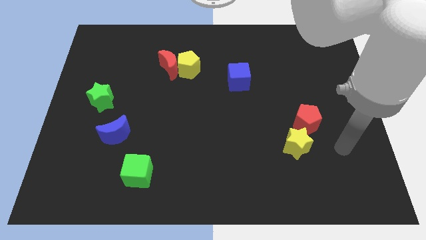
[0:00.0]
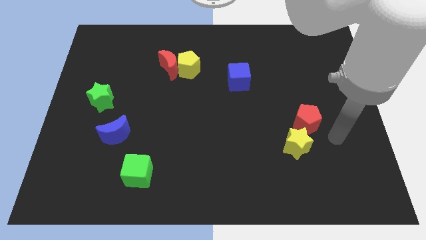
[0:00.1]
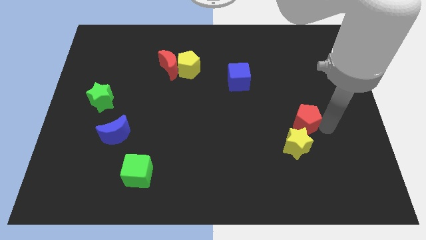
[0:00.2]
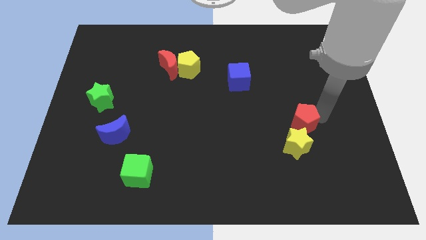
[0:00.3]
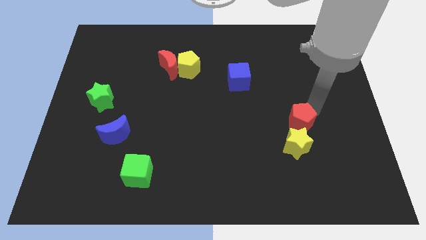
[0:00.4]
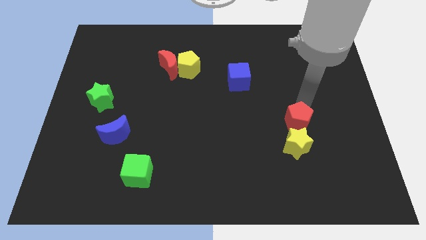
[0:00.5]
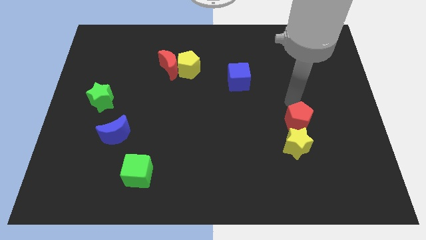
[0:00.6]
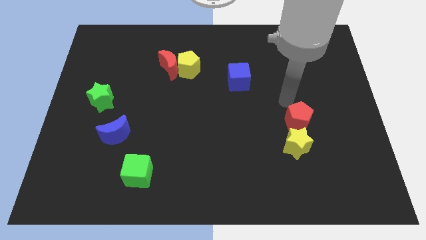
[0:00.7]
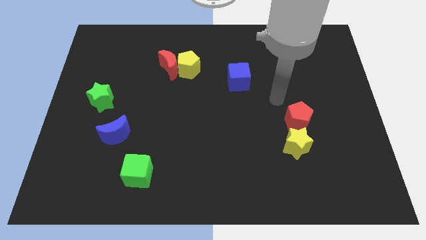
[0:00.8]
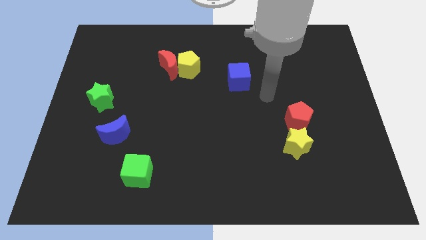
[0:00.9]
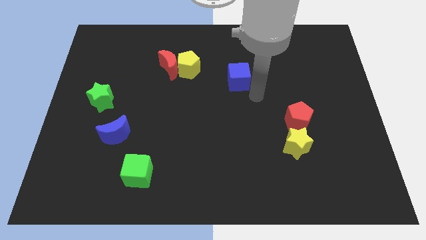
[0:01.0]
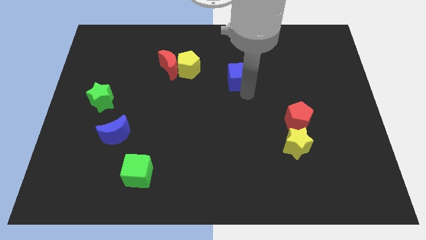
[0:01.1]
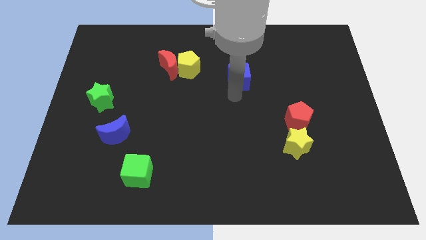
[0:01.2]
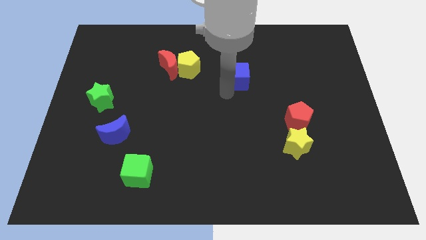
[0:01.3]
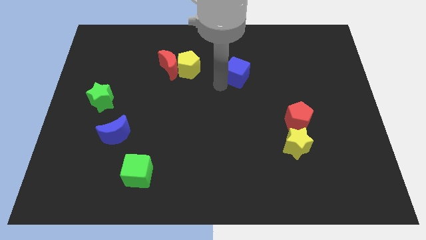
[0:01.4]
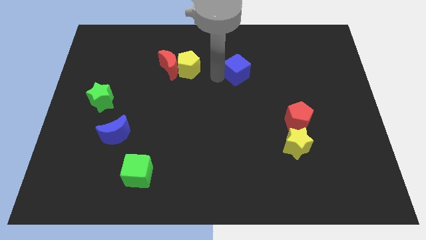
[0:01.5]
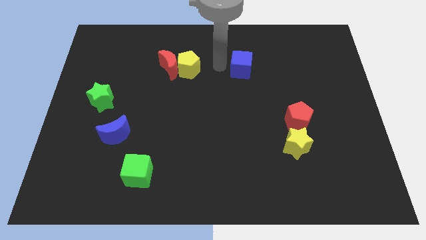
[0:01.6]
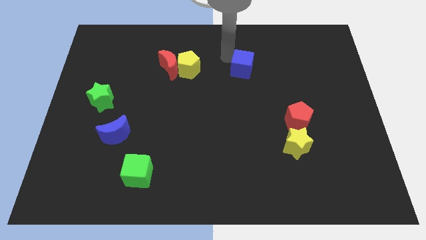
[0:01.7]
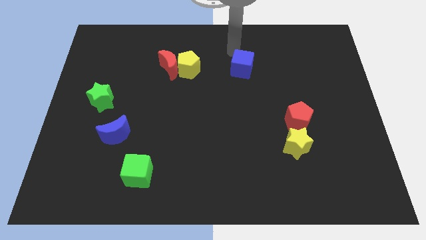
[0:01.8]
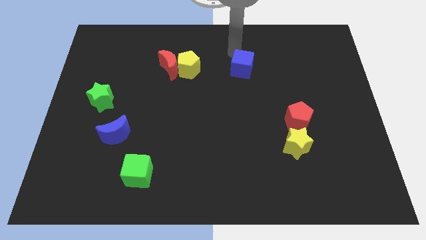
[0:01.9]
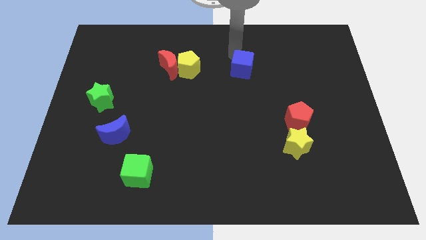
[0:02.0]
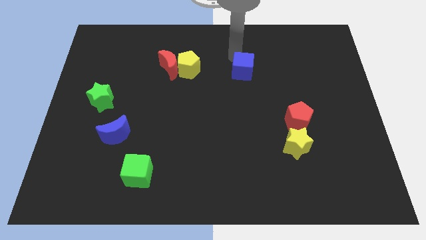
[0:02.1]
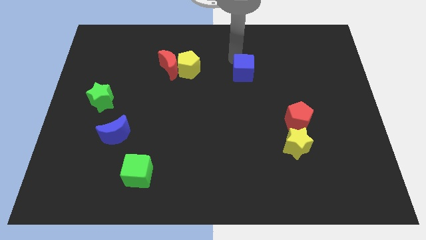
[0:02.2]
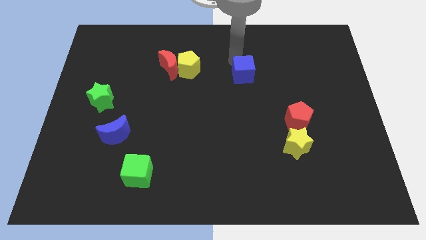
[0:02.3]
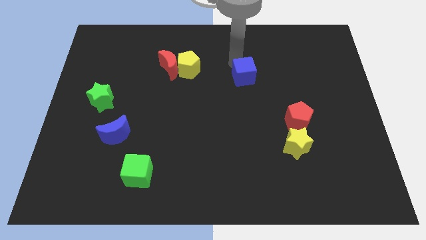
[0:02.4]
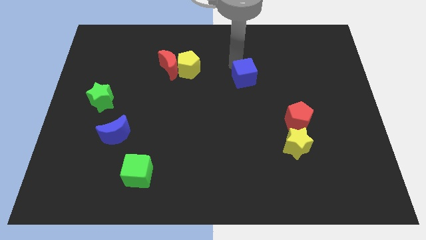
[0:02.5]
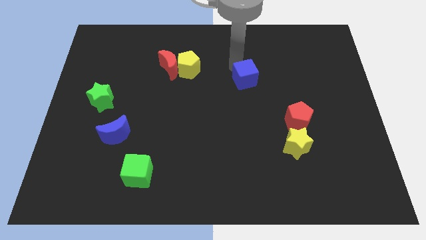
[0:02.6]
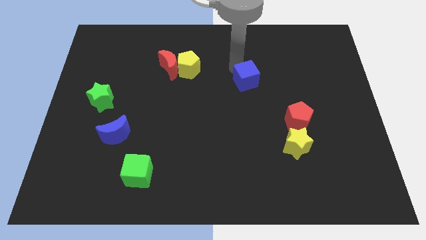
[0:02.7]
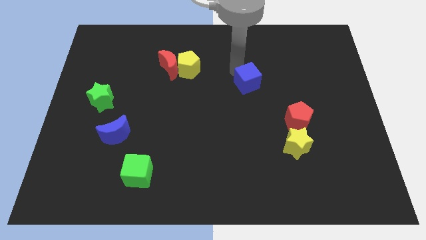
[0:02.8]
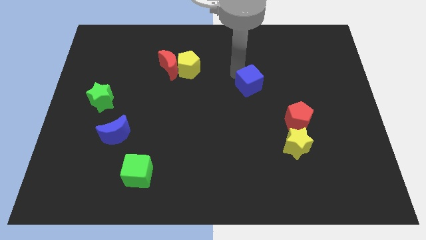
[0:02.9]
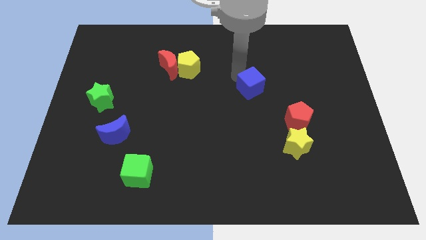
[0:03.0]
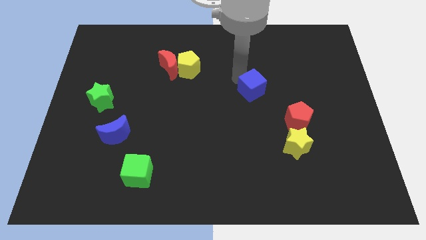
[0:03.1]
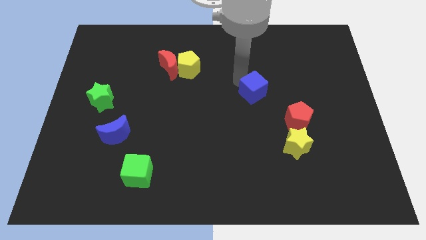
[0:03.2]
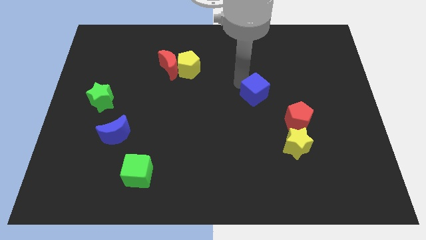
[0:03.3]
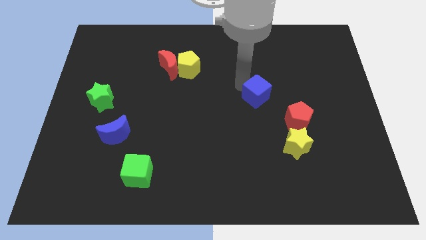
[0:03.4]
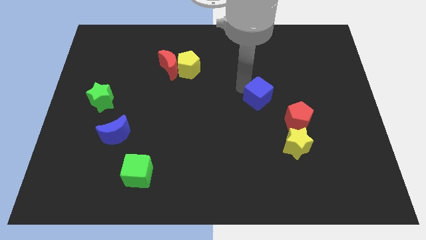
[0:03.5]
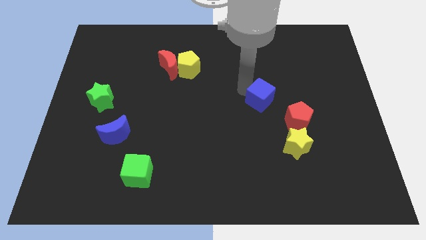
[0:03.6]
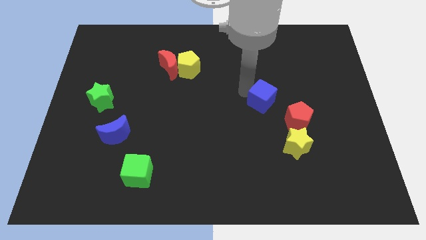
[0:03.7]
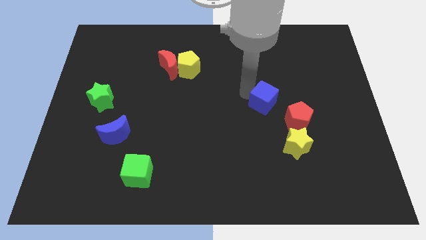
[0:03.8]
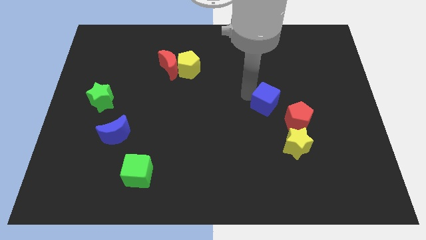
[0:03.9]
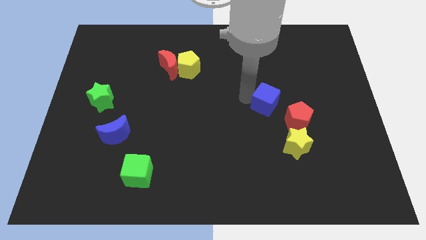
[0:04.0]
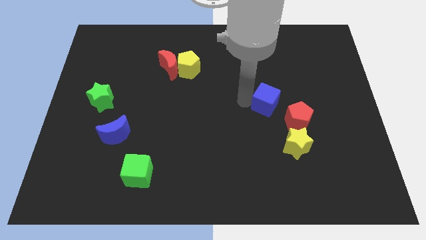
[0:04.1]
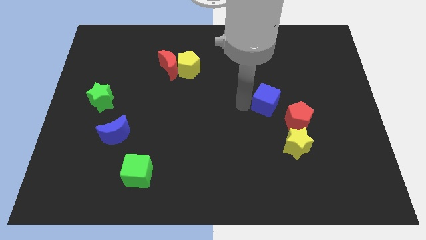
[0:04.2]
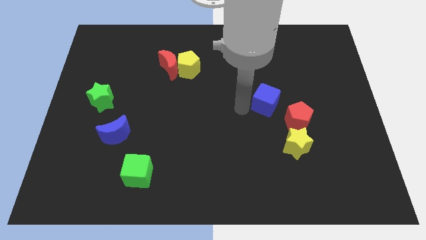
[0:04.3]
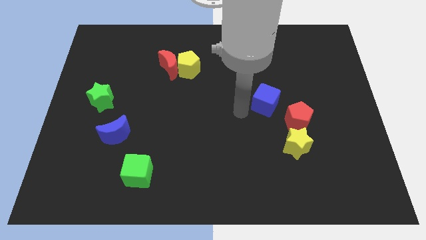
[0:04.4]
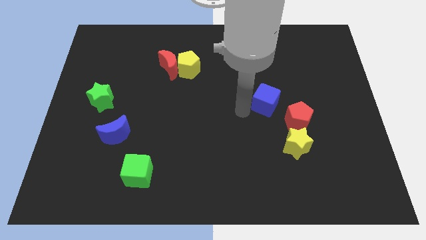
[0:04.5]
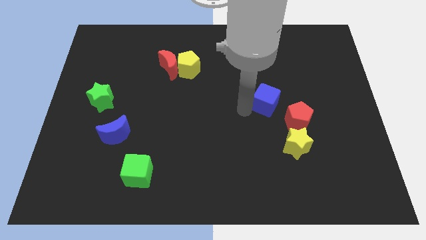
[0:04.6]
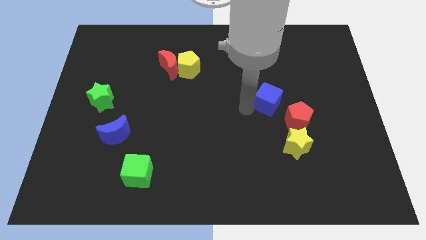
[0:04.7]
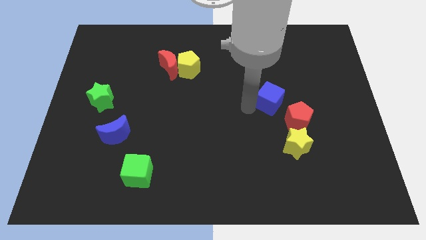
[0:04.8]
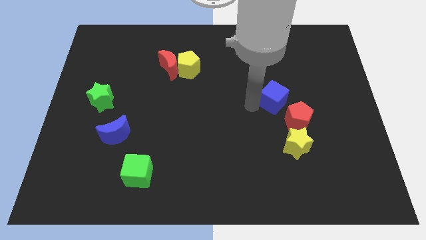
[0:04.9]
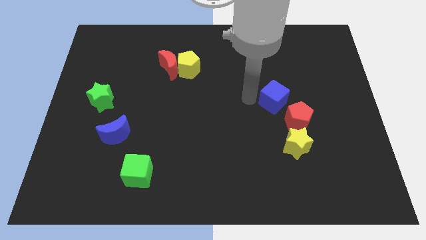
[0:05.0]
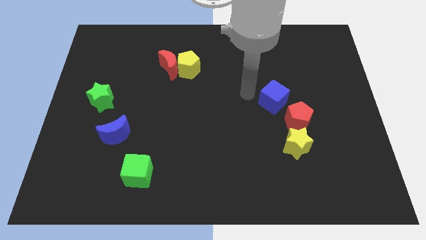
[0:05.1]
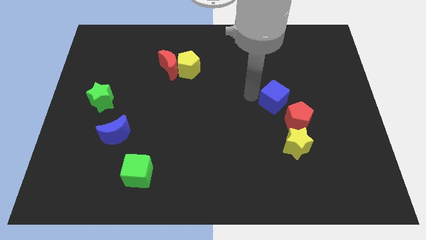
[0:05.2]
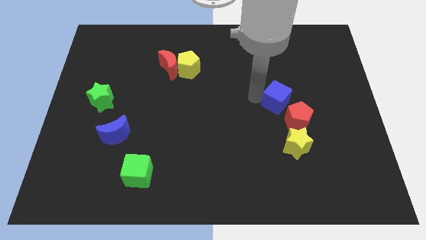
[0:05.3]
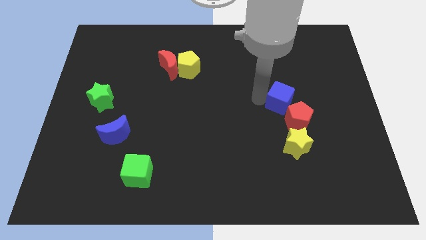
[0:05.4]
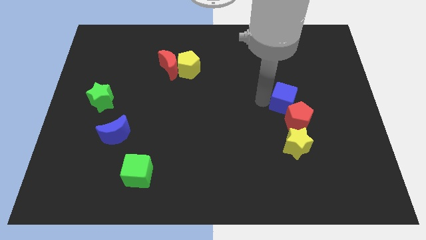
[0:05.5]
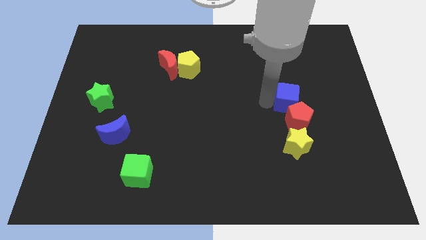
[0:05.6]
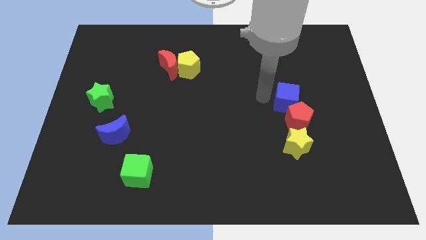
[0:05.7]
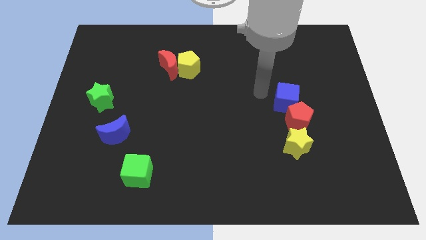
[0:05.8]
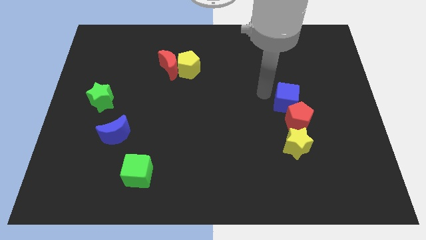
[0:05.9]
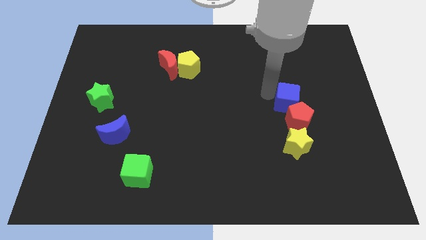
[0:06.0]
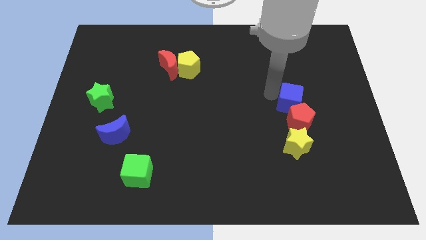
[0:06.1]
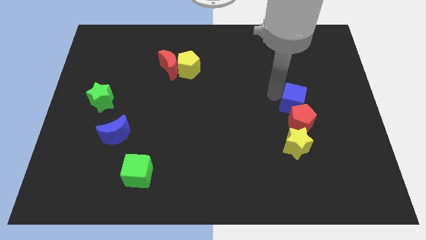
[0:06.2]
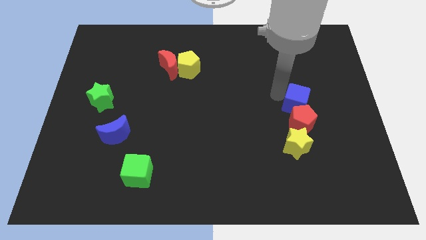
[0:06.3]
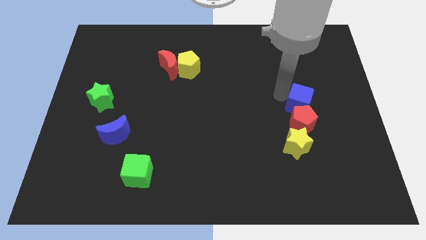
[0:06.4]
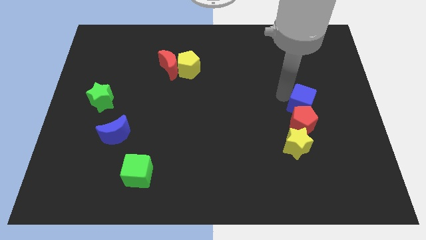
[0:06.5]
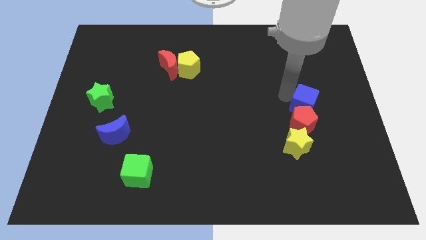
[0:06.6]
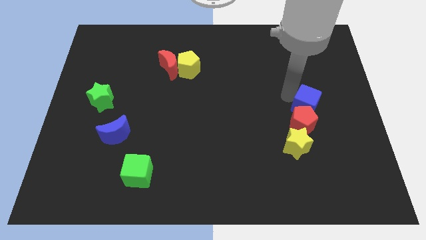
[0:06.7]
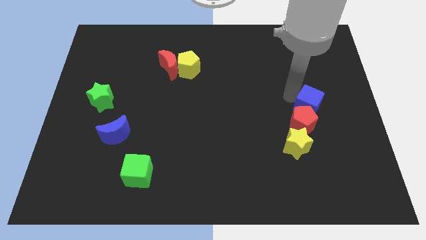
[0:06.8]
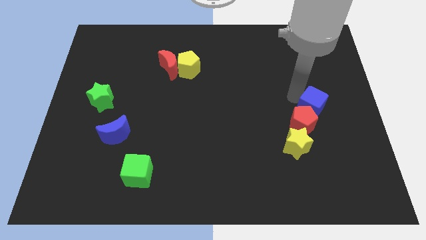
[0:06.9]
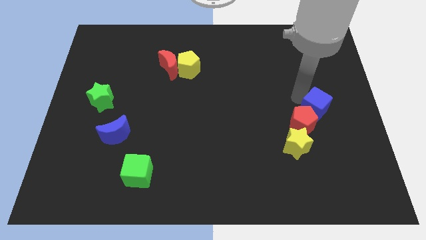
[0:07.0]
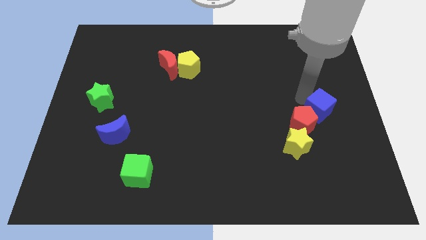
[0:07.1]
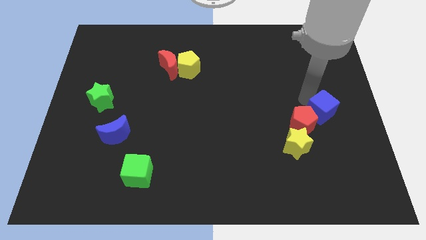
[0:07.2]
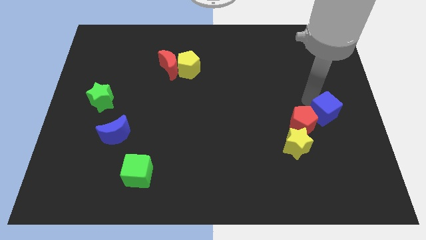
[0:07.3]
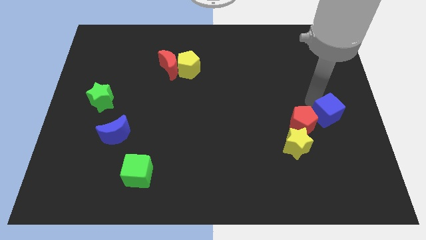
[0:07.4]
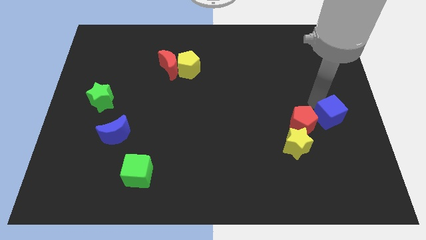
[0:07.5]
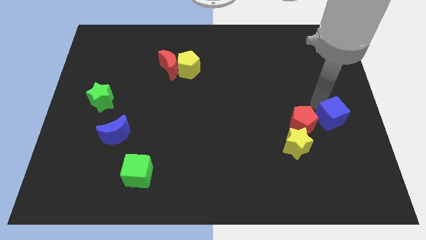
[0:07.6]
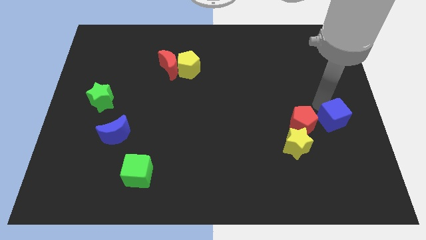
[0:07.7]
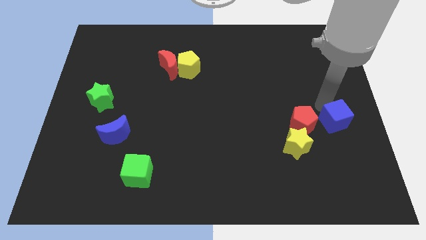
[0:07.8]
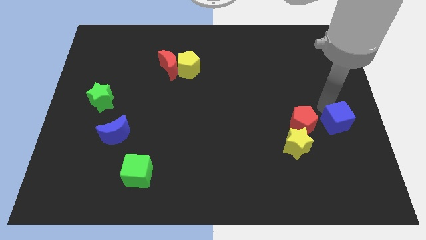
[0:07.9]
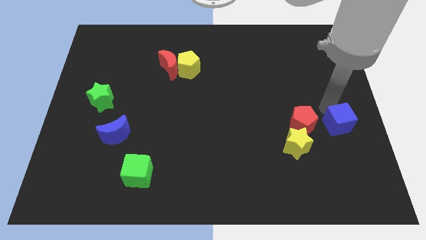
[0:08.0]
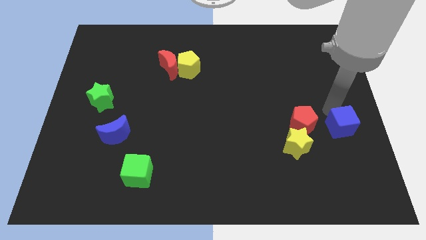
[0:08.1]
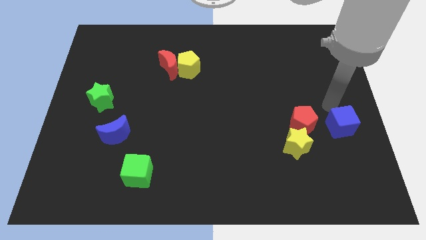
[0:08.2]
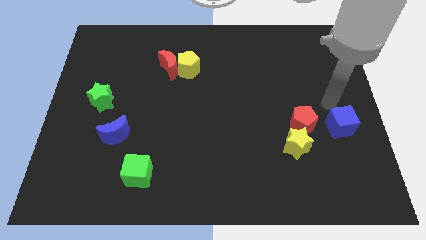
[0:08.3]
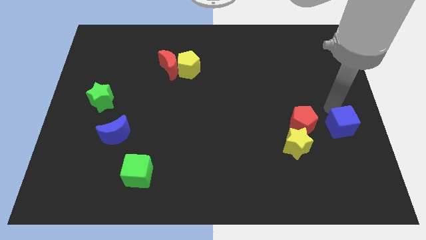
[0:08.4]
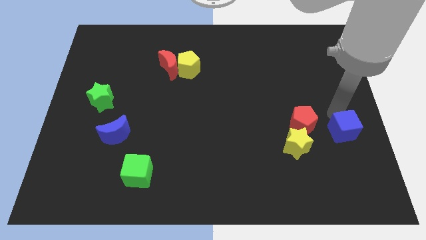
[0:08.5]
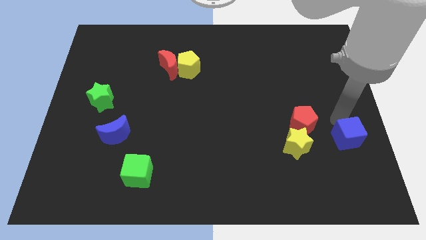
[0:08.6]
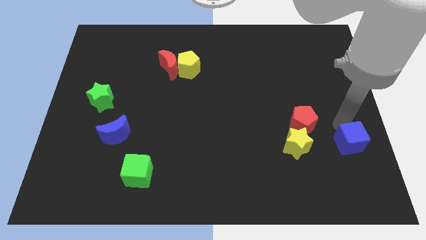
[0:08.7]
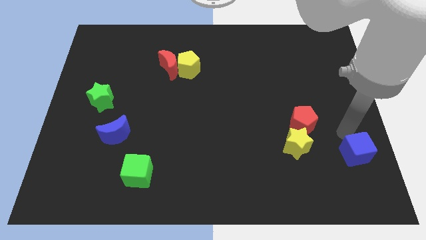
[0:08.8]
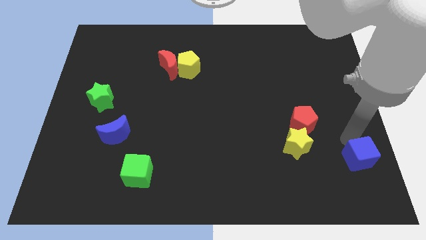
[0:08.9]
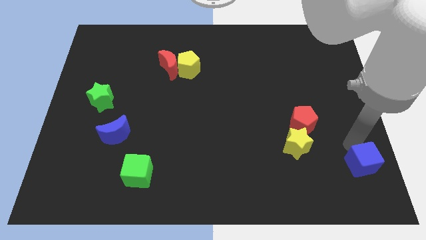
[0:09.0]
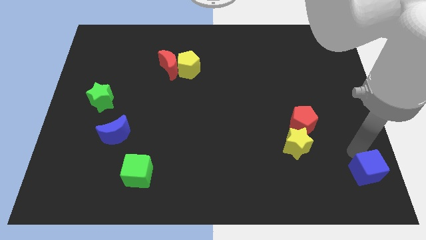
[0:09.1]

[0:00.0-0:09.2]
put the blue cube to the lower right corner
